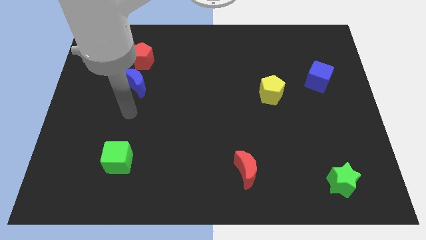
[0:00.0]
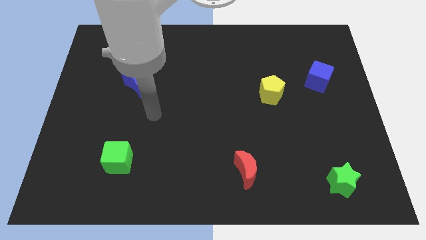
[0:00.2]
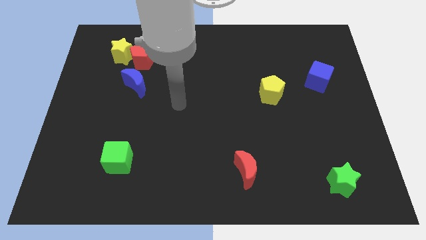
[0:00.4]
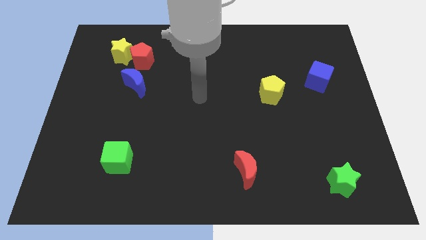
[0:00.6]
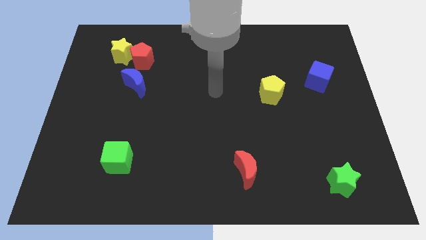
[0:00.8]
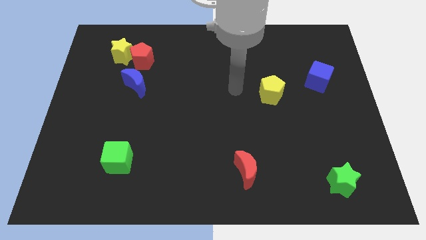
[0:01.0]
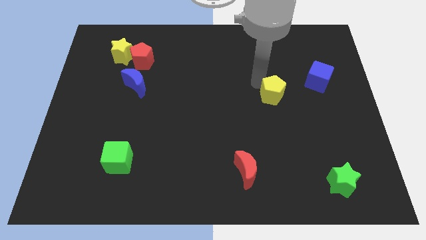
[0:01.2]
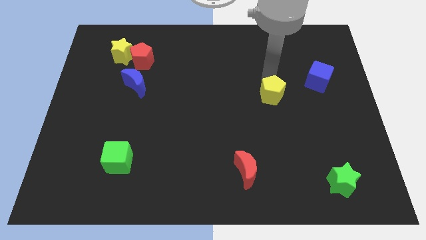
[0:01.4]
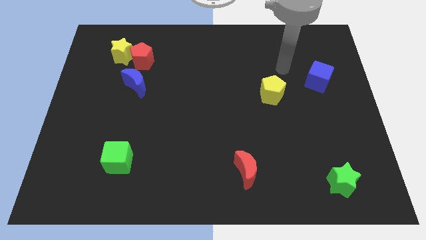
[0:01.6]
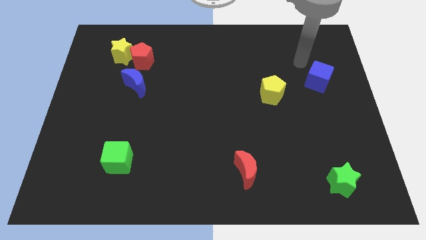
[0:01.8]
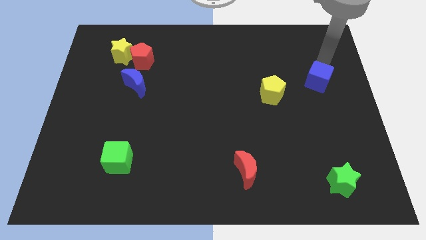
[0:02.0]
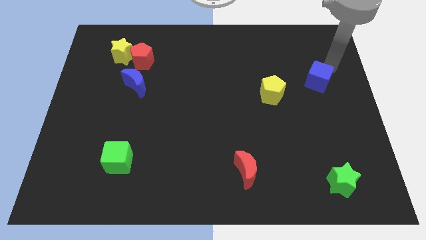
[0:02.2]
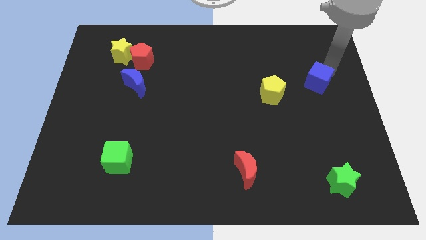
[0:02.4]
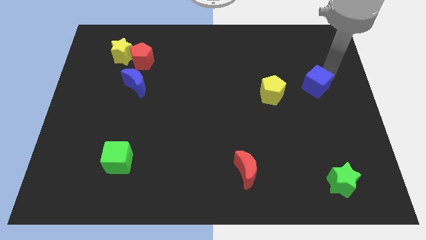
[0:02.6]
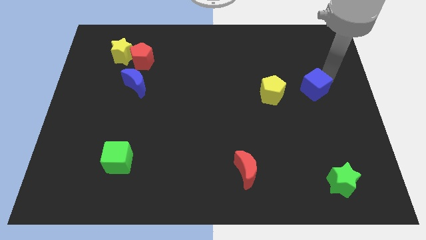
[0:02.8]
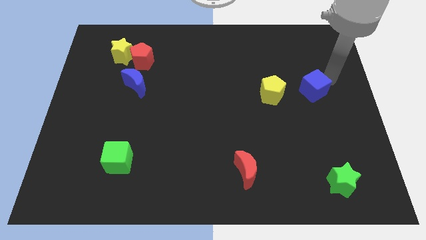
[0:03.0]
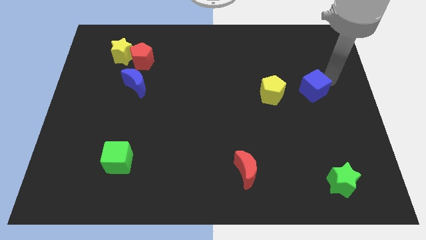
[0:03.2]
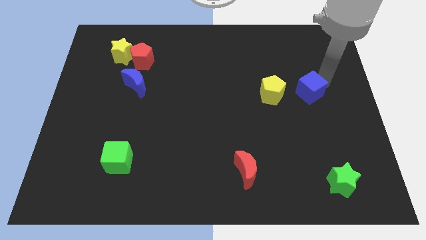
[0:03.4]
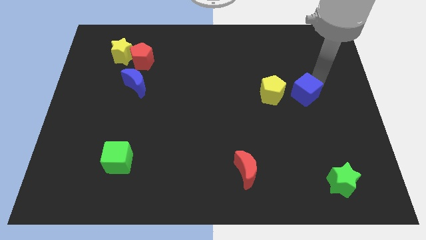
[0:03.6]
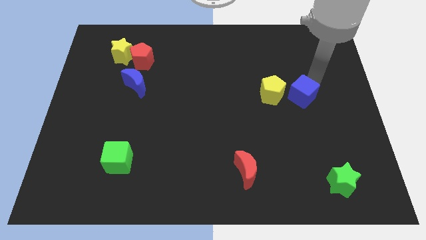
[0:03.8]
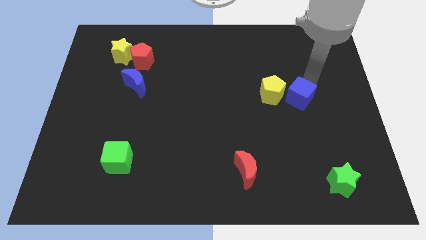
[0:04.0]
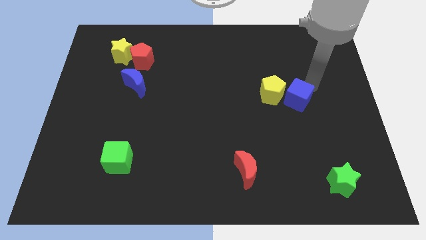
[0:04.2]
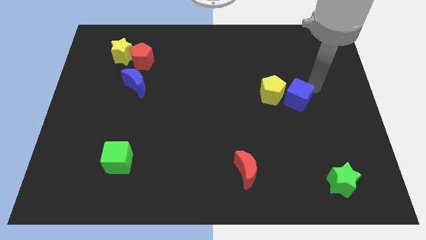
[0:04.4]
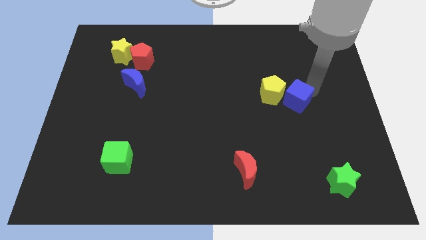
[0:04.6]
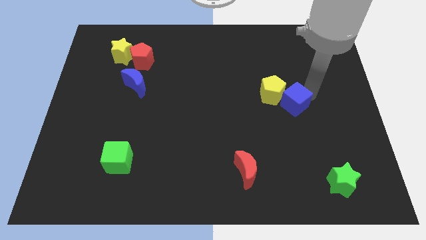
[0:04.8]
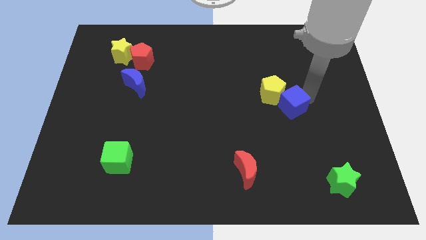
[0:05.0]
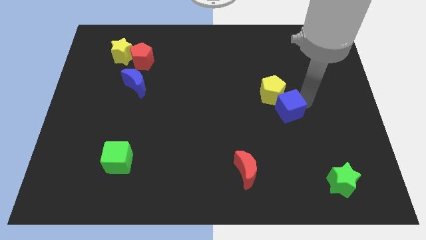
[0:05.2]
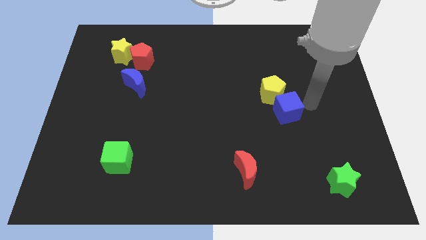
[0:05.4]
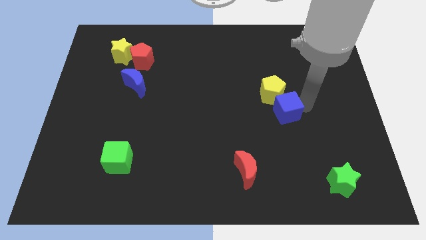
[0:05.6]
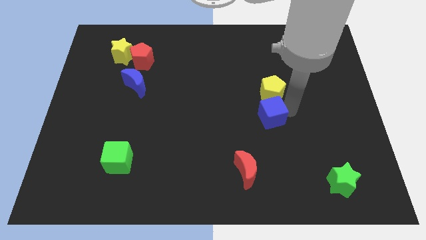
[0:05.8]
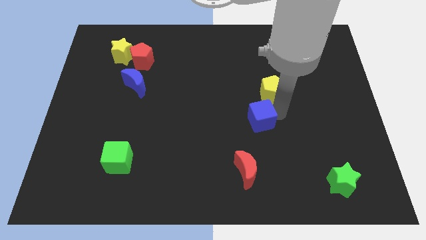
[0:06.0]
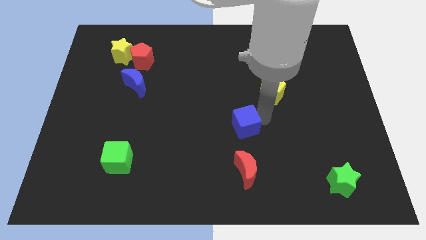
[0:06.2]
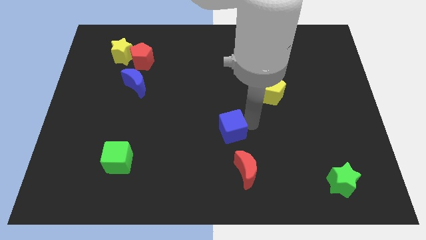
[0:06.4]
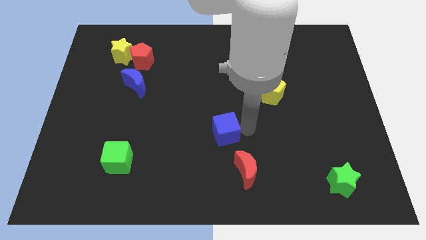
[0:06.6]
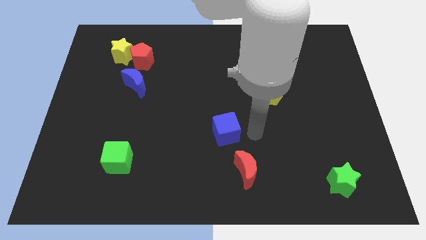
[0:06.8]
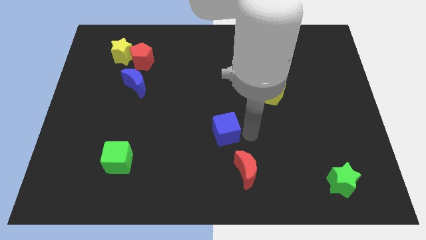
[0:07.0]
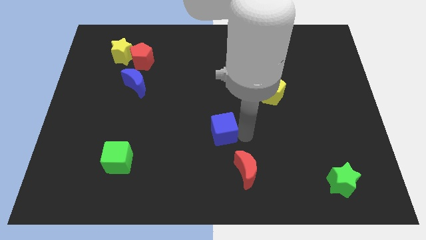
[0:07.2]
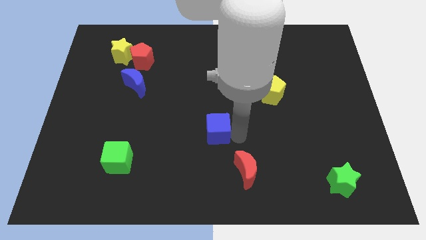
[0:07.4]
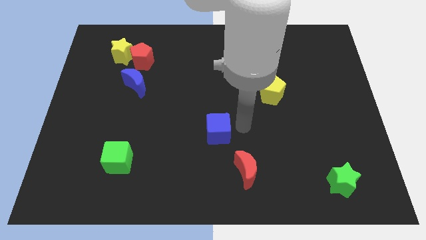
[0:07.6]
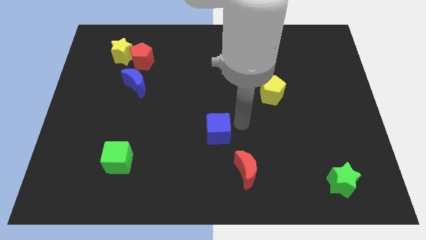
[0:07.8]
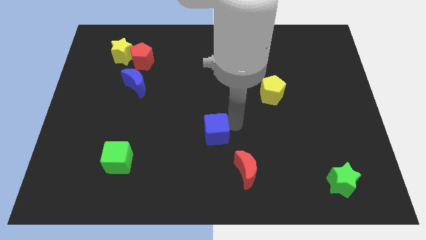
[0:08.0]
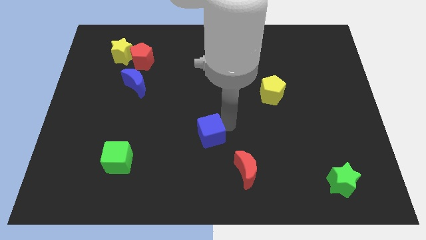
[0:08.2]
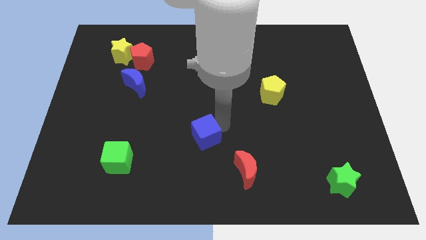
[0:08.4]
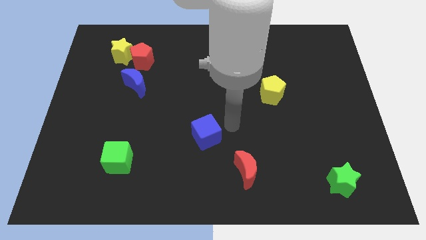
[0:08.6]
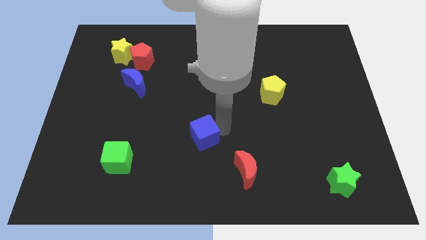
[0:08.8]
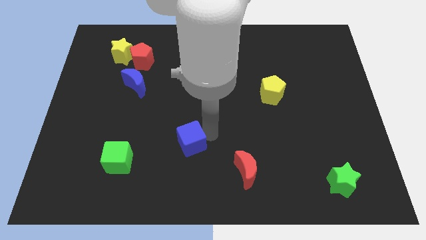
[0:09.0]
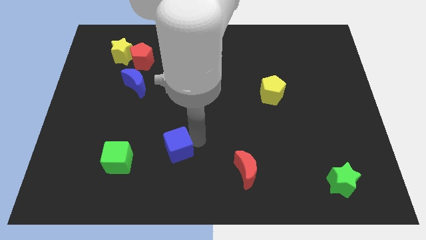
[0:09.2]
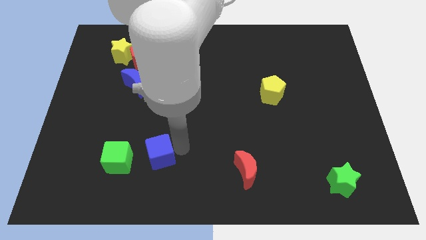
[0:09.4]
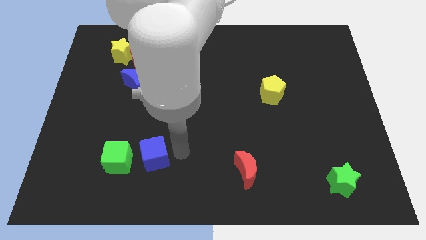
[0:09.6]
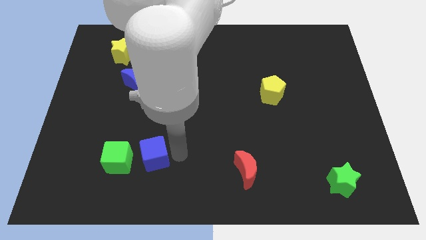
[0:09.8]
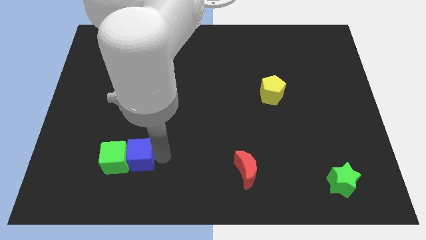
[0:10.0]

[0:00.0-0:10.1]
push the blue cube to the green cube

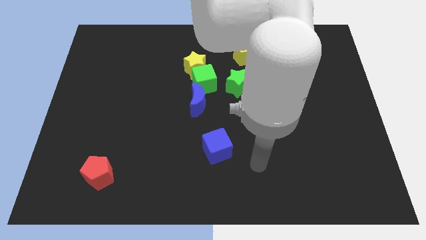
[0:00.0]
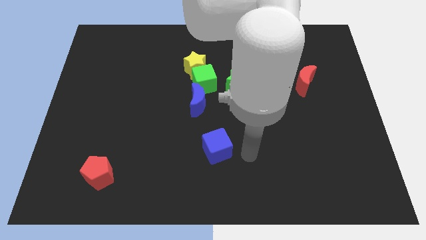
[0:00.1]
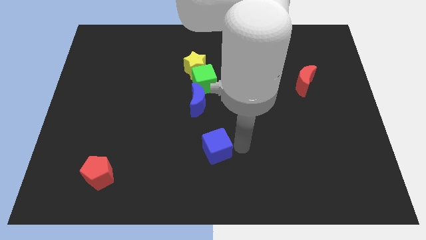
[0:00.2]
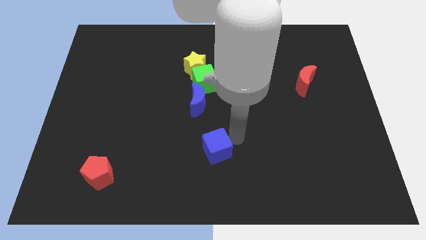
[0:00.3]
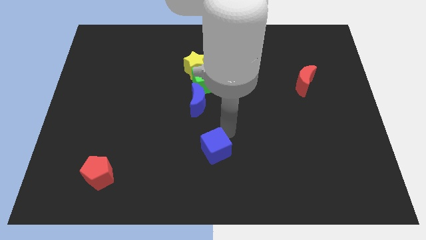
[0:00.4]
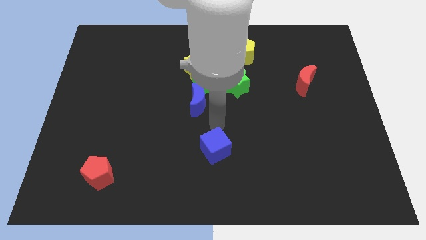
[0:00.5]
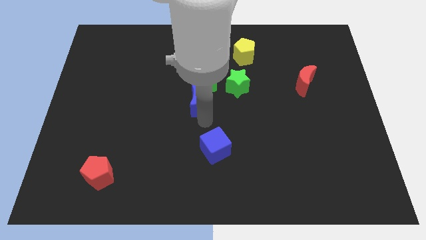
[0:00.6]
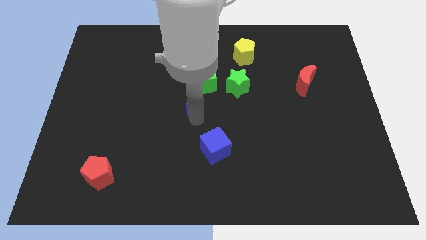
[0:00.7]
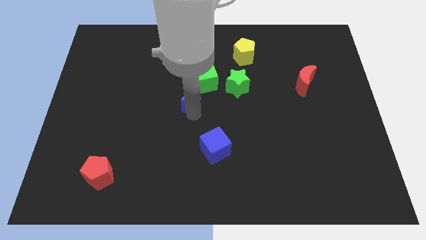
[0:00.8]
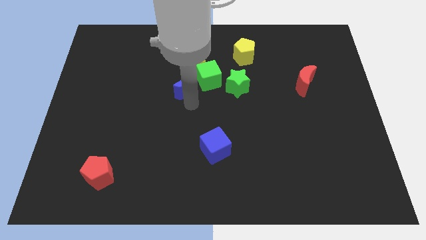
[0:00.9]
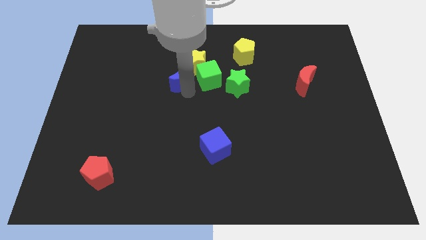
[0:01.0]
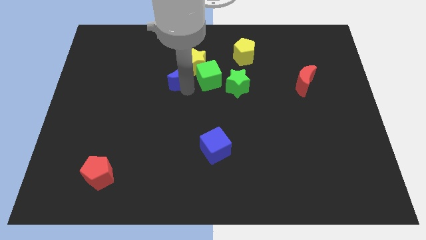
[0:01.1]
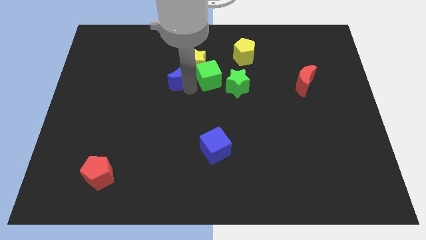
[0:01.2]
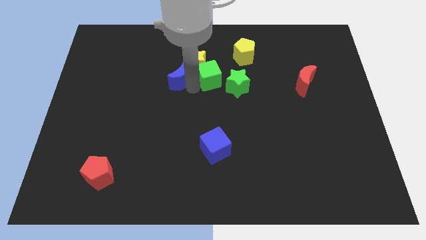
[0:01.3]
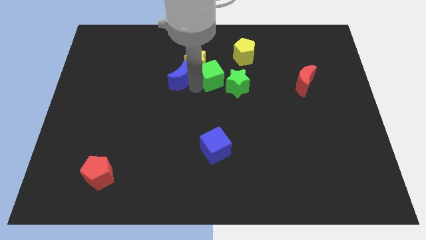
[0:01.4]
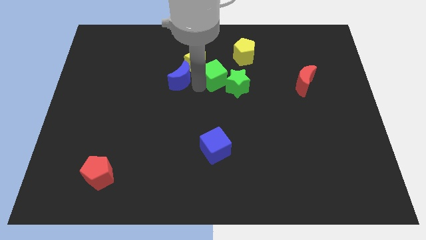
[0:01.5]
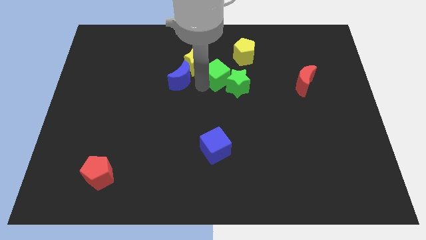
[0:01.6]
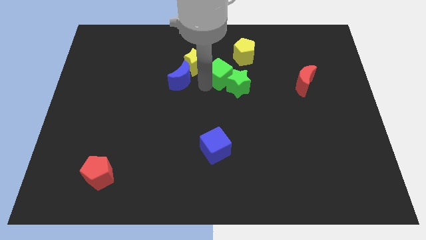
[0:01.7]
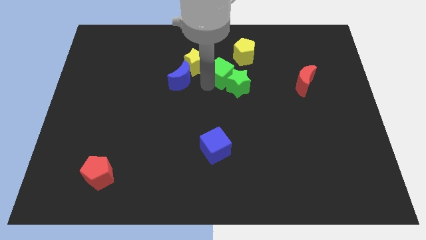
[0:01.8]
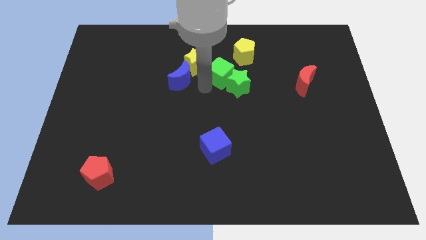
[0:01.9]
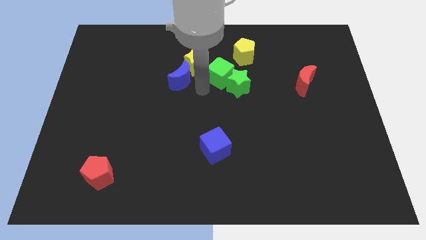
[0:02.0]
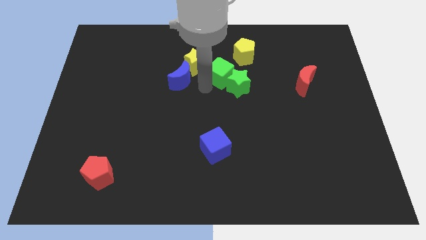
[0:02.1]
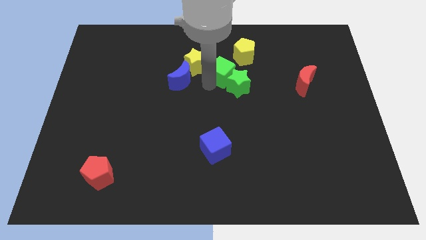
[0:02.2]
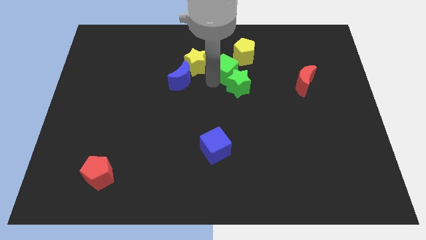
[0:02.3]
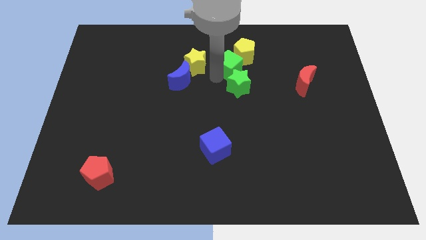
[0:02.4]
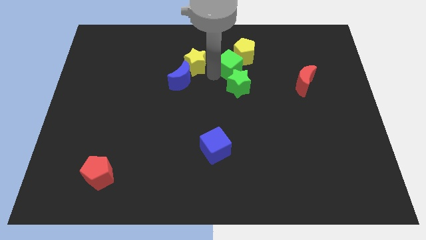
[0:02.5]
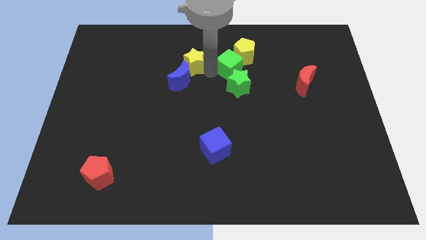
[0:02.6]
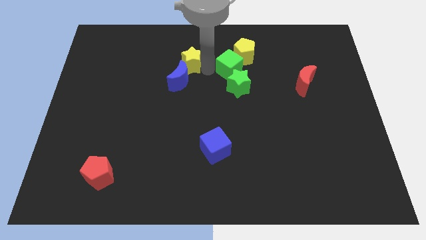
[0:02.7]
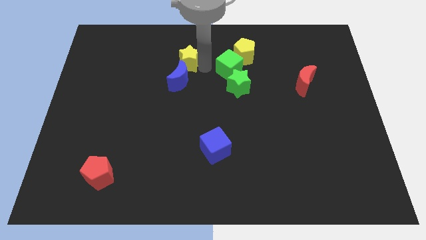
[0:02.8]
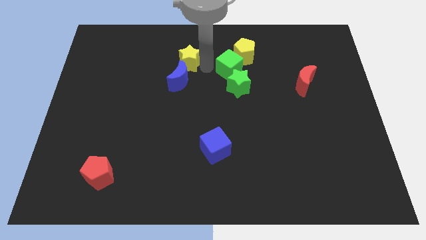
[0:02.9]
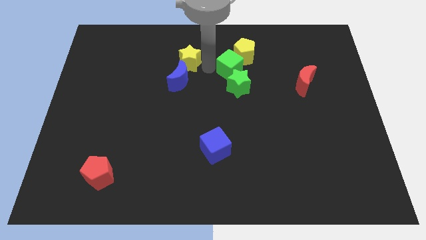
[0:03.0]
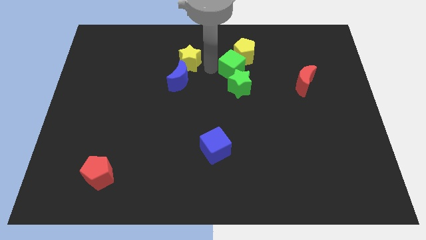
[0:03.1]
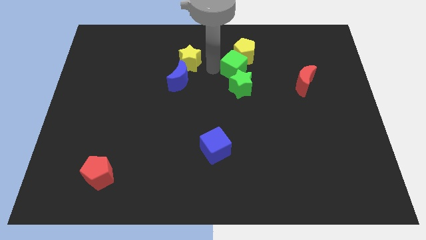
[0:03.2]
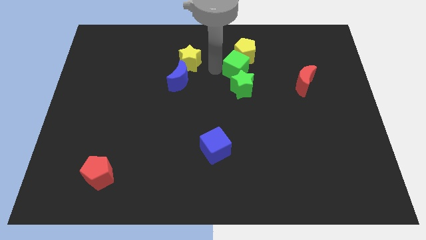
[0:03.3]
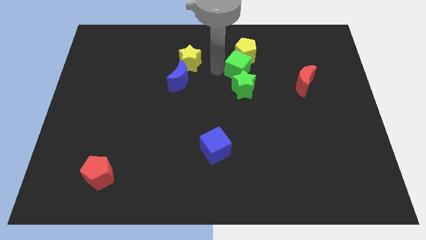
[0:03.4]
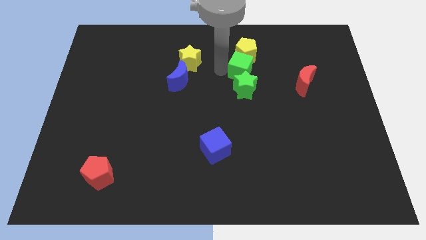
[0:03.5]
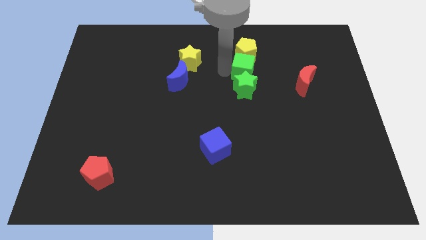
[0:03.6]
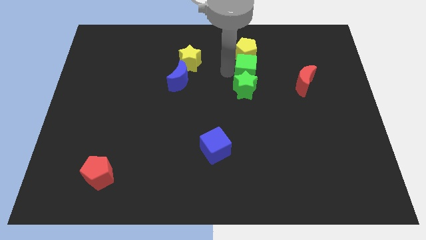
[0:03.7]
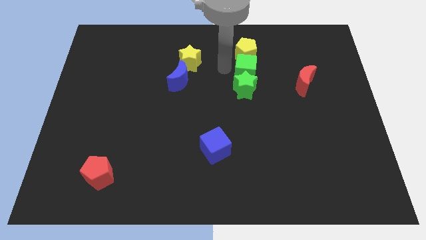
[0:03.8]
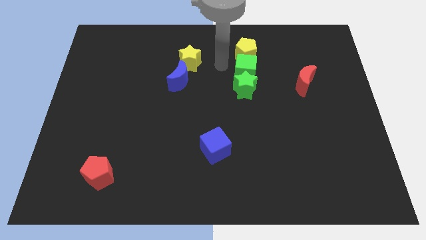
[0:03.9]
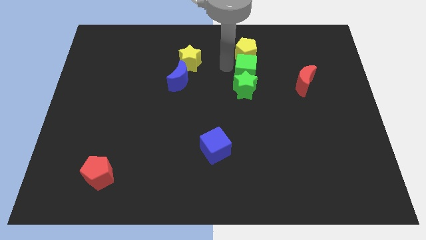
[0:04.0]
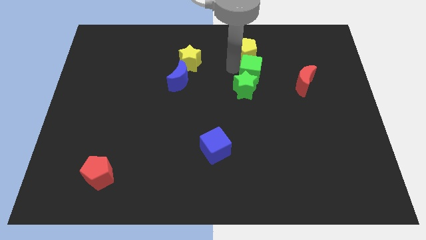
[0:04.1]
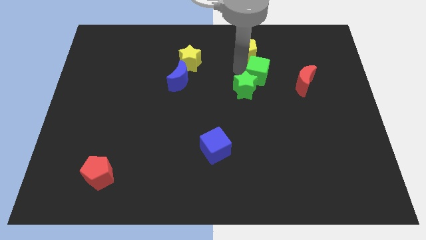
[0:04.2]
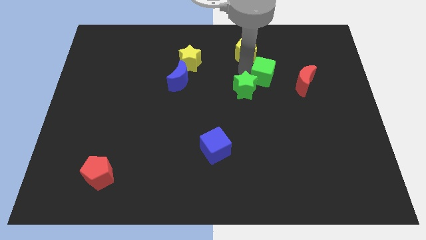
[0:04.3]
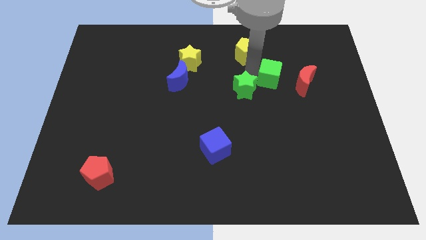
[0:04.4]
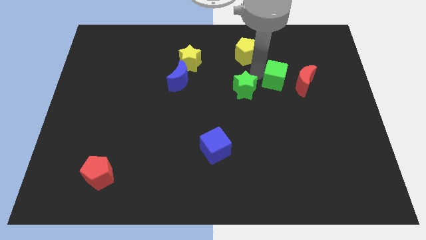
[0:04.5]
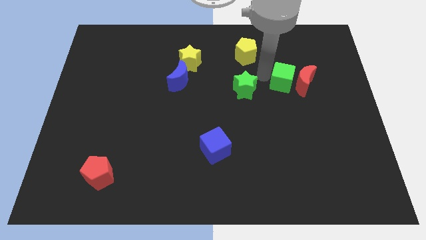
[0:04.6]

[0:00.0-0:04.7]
slide the green cube towards the red moon
